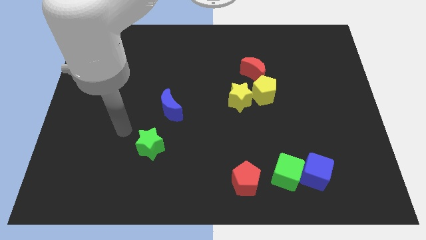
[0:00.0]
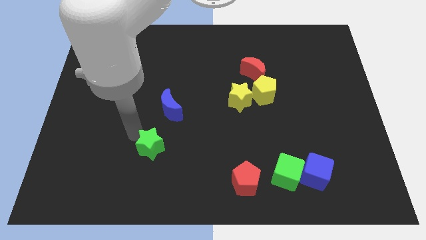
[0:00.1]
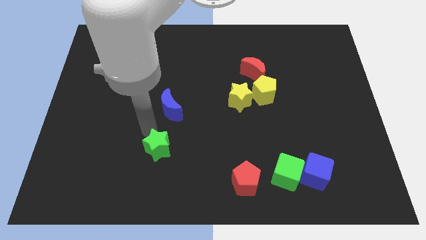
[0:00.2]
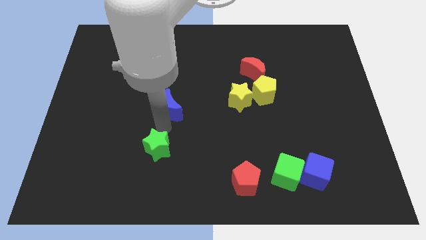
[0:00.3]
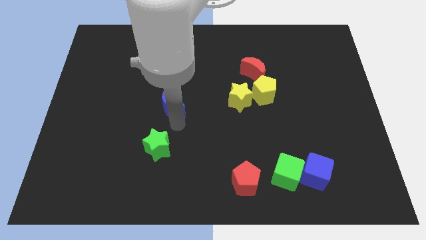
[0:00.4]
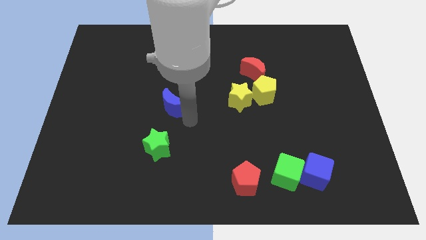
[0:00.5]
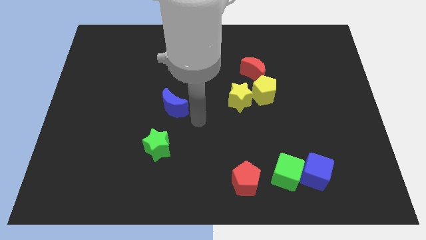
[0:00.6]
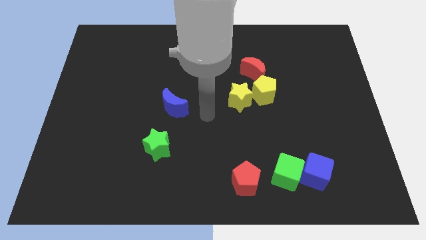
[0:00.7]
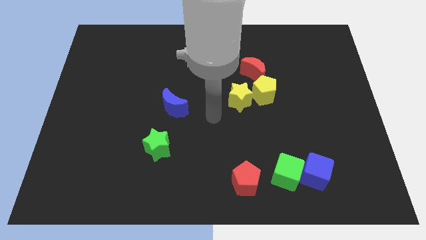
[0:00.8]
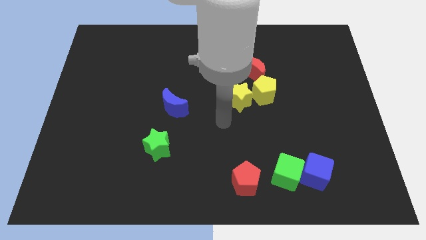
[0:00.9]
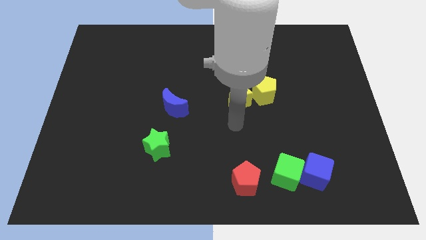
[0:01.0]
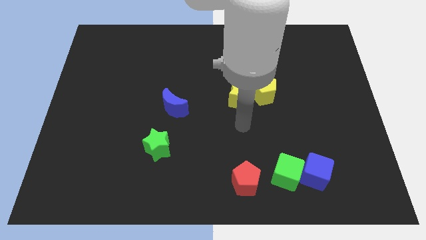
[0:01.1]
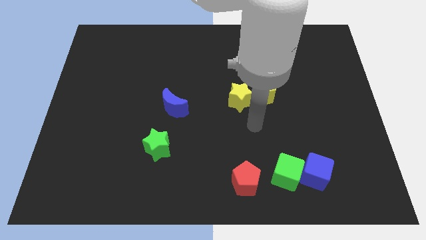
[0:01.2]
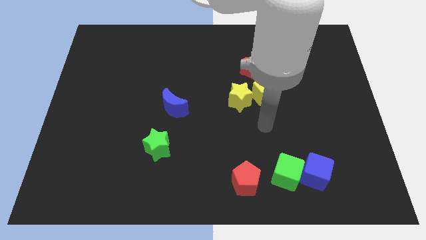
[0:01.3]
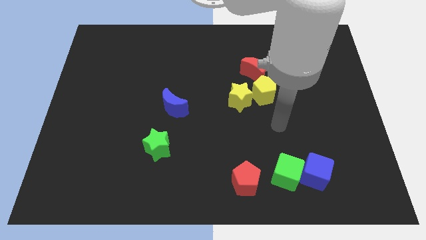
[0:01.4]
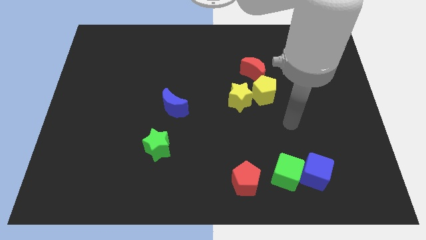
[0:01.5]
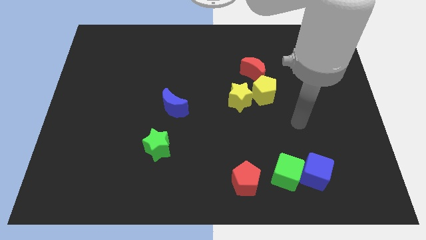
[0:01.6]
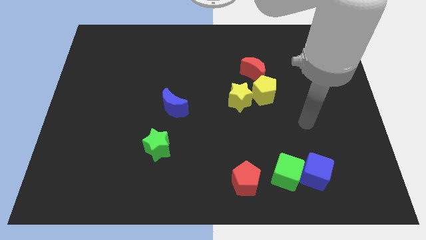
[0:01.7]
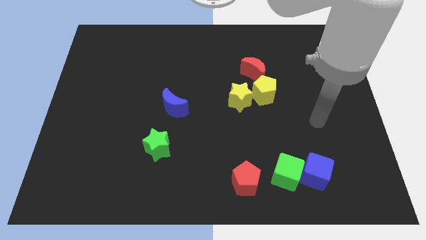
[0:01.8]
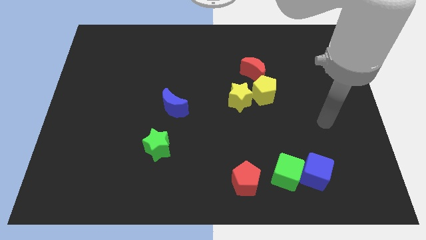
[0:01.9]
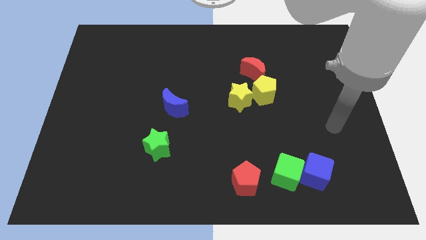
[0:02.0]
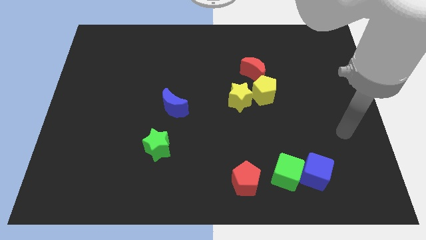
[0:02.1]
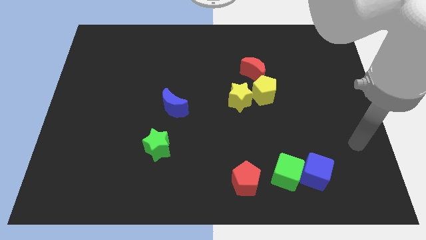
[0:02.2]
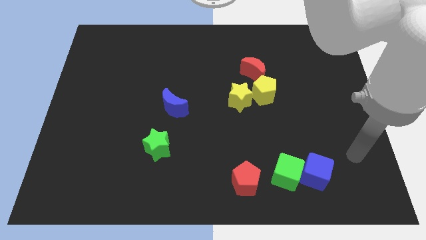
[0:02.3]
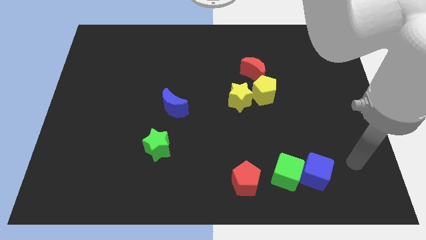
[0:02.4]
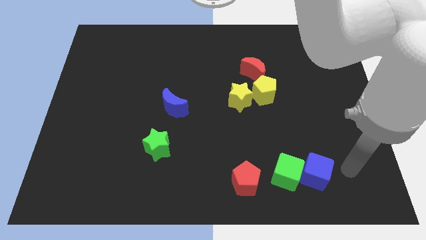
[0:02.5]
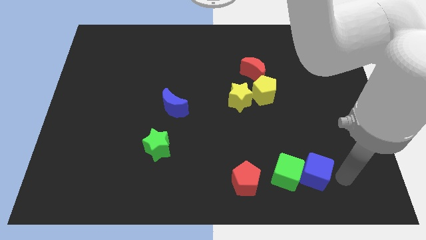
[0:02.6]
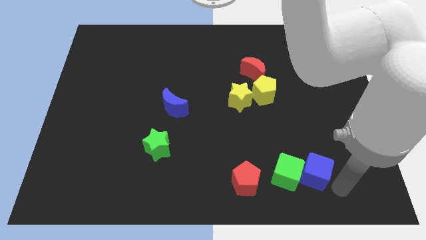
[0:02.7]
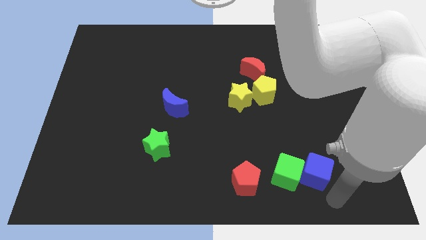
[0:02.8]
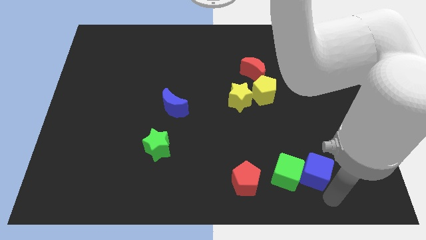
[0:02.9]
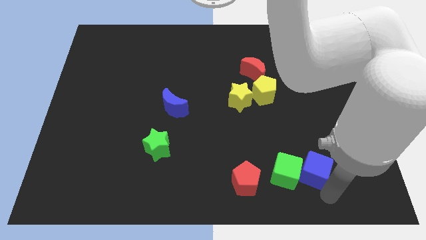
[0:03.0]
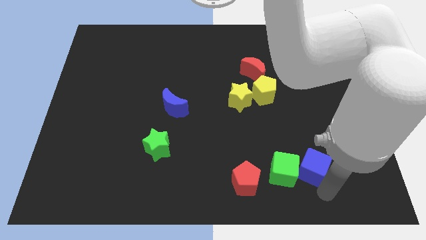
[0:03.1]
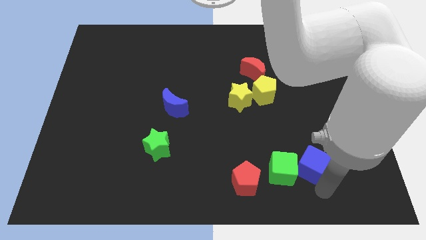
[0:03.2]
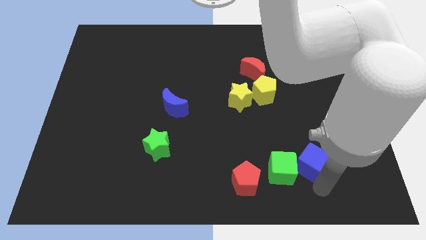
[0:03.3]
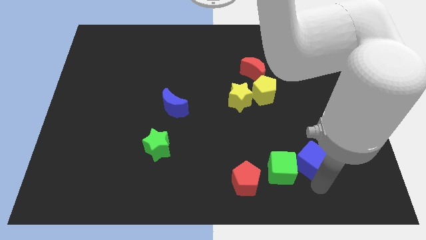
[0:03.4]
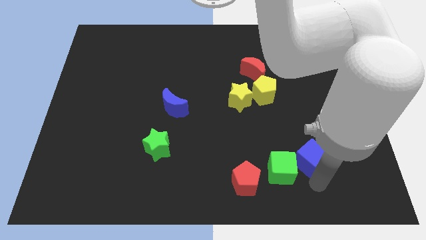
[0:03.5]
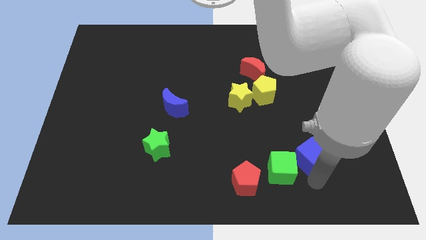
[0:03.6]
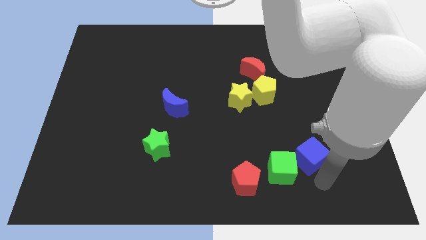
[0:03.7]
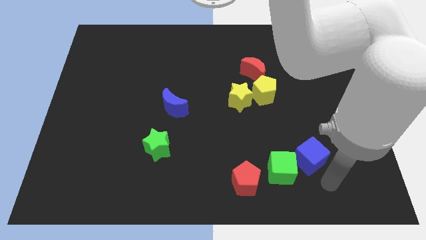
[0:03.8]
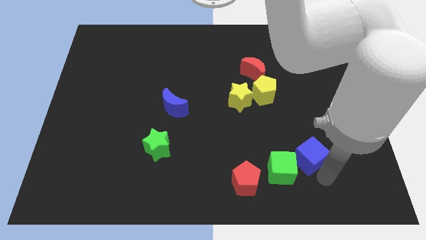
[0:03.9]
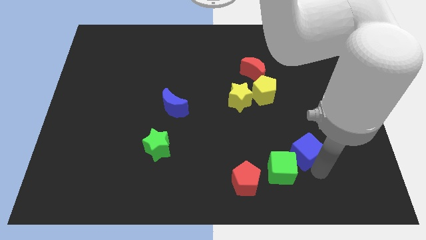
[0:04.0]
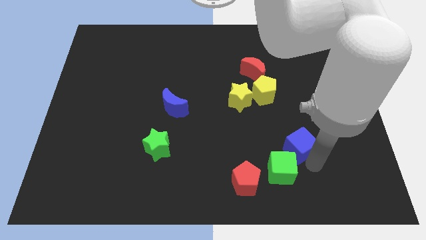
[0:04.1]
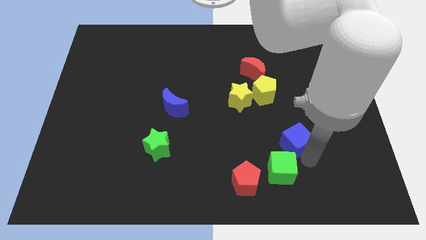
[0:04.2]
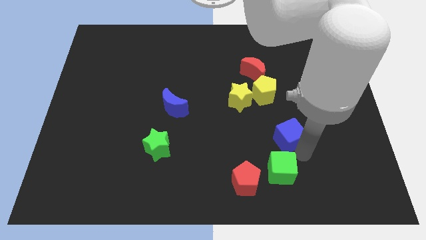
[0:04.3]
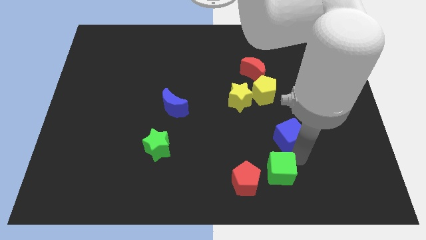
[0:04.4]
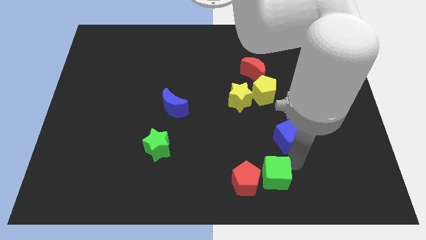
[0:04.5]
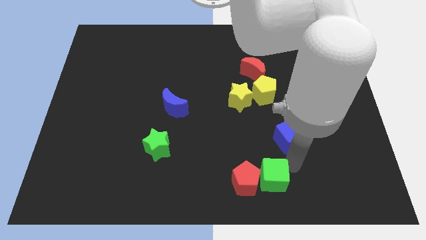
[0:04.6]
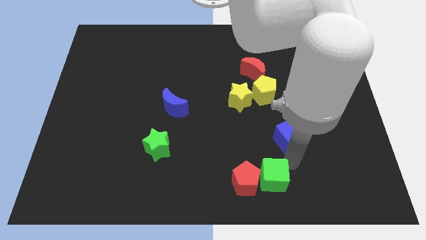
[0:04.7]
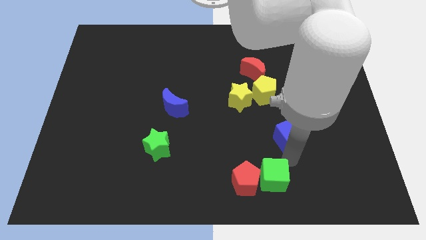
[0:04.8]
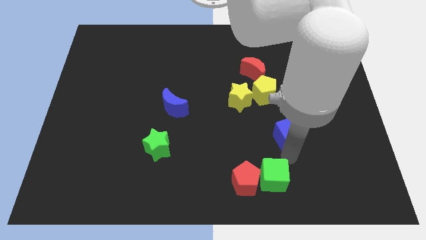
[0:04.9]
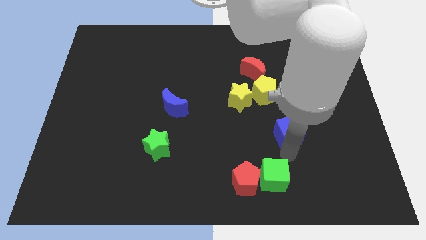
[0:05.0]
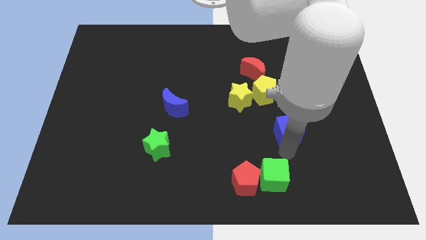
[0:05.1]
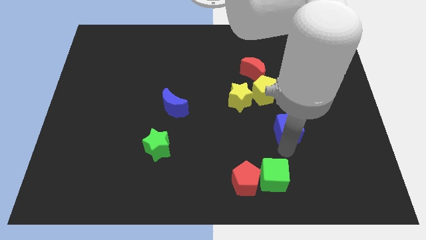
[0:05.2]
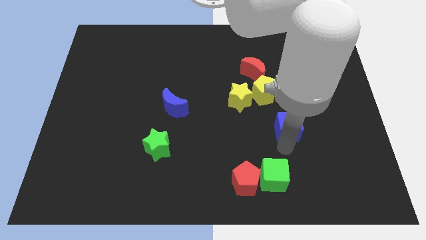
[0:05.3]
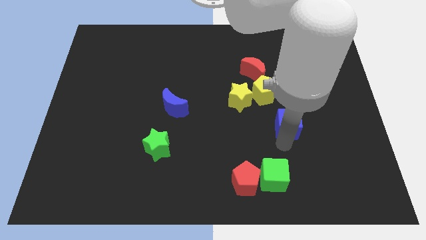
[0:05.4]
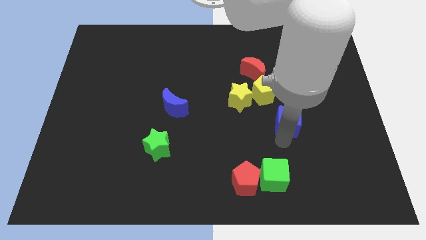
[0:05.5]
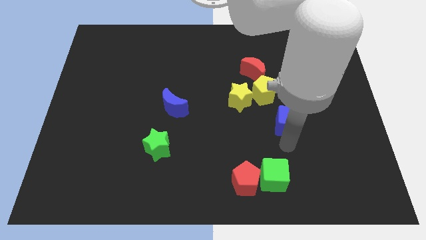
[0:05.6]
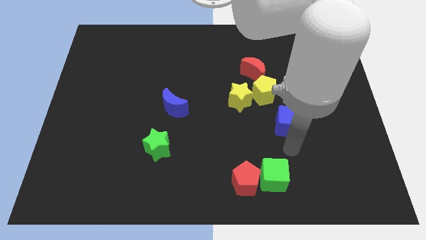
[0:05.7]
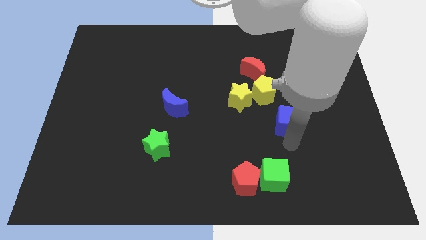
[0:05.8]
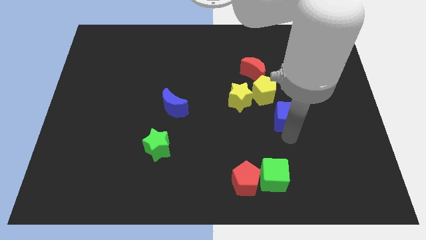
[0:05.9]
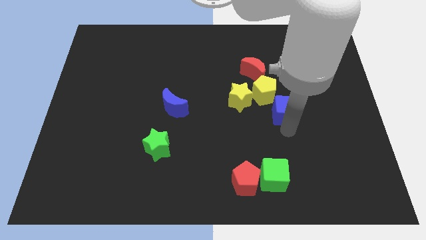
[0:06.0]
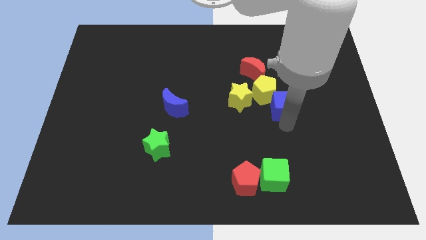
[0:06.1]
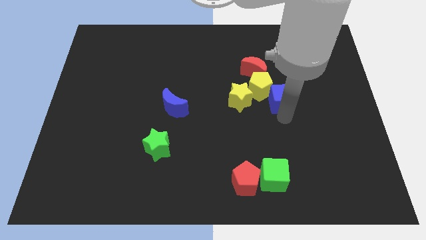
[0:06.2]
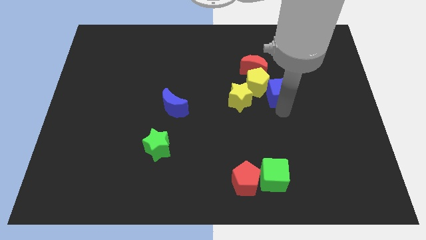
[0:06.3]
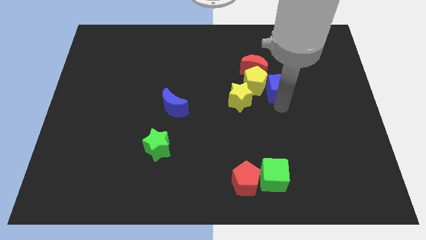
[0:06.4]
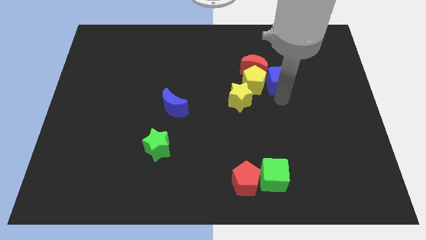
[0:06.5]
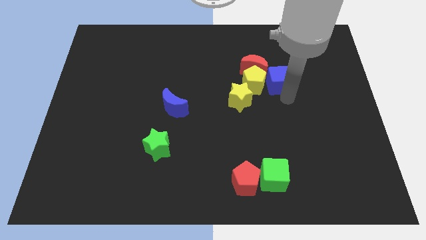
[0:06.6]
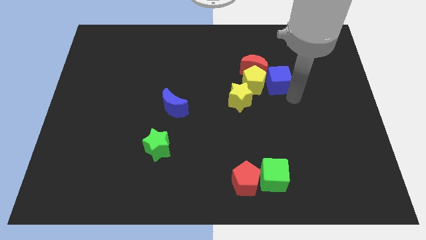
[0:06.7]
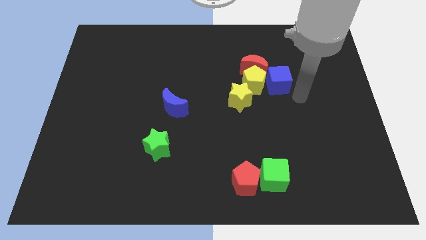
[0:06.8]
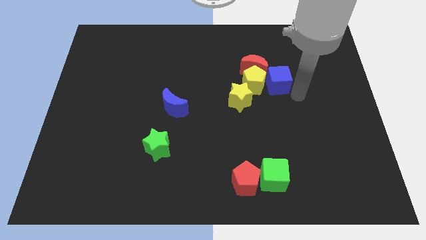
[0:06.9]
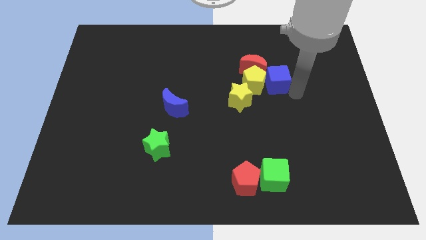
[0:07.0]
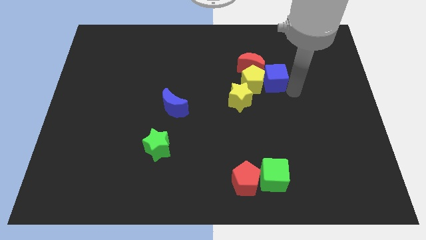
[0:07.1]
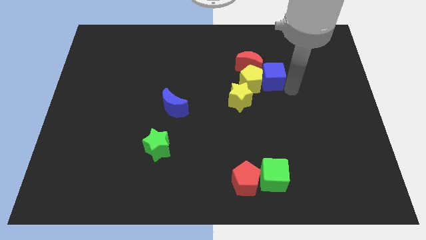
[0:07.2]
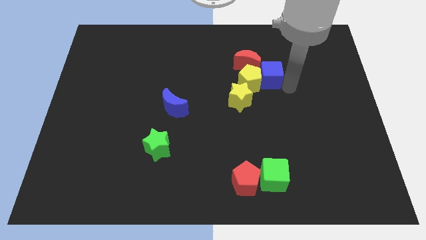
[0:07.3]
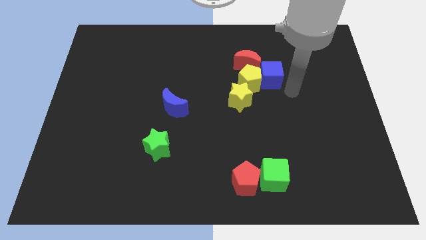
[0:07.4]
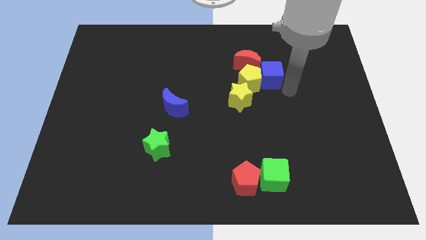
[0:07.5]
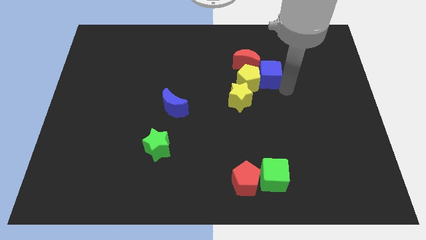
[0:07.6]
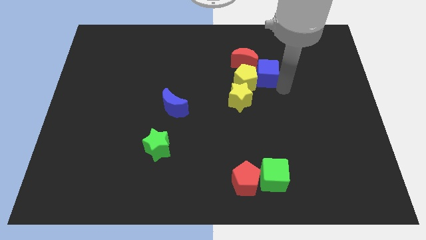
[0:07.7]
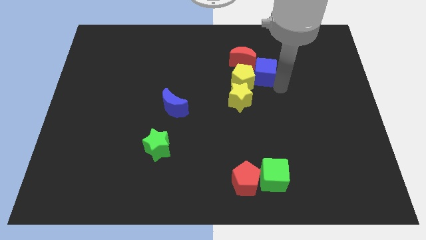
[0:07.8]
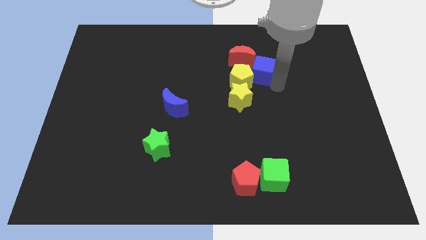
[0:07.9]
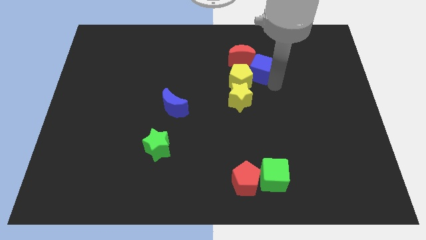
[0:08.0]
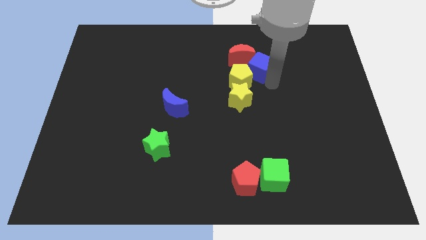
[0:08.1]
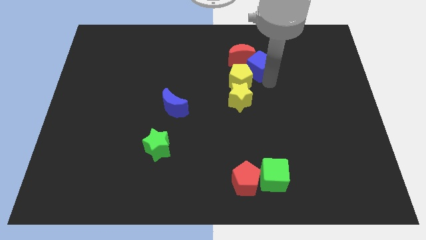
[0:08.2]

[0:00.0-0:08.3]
move the blue cube next to the red moon
